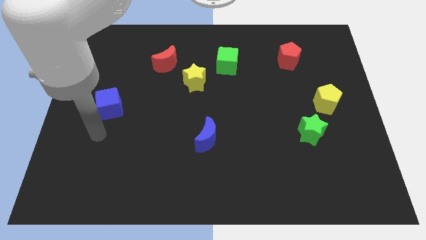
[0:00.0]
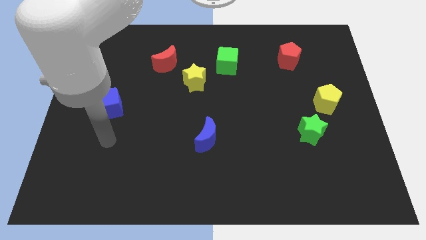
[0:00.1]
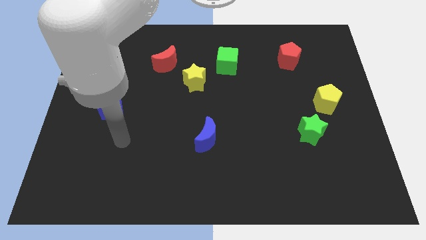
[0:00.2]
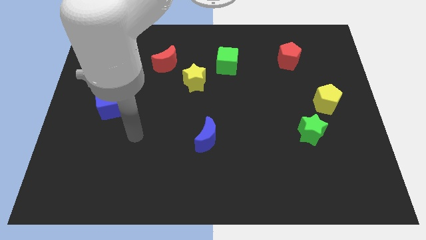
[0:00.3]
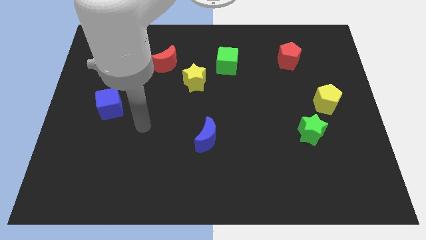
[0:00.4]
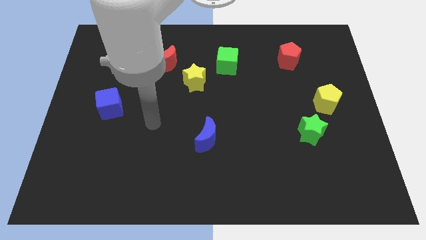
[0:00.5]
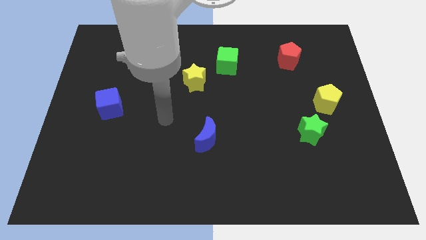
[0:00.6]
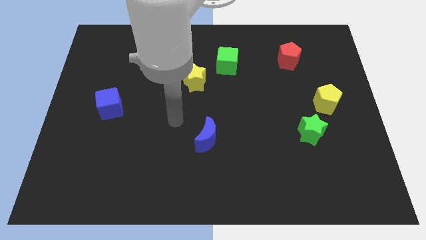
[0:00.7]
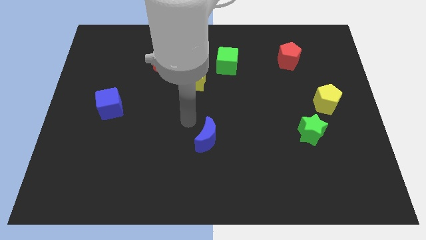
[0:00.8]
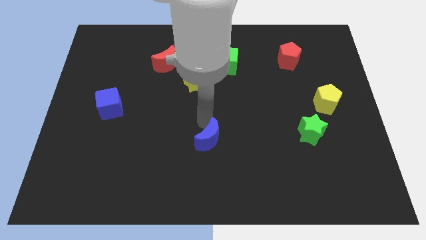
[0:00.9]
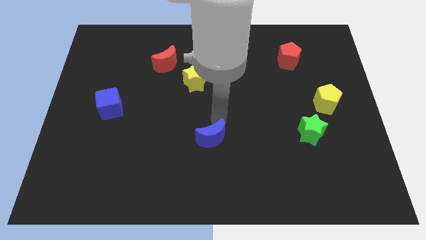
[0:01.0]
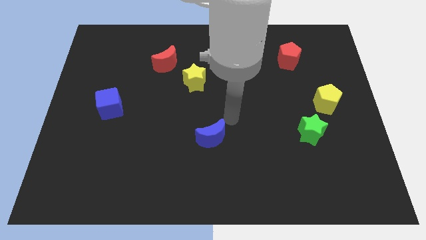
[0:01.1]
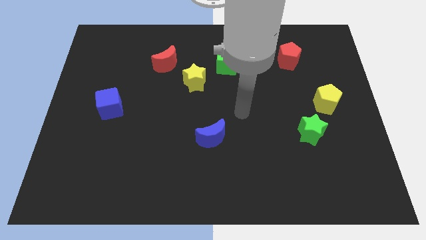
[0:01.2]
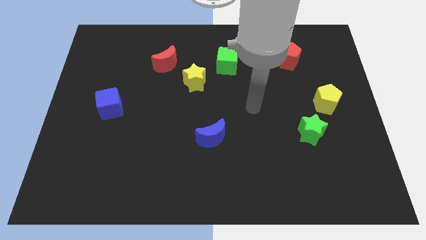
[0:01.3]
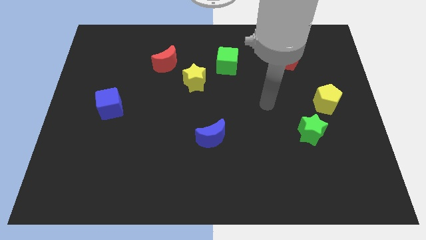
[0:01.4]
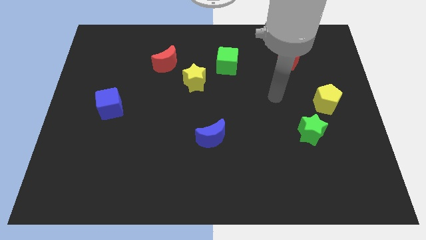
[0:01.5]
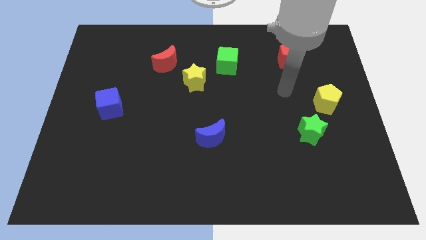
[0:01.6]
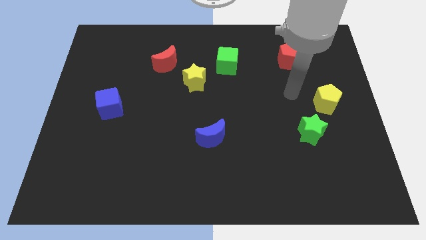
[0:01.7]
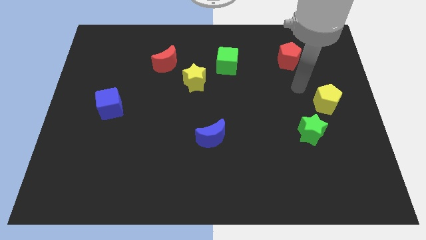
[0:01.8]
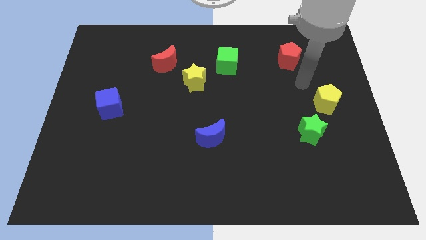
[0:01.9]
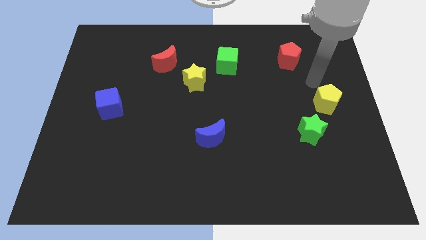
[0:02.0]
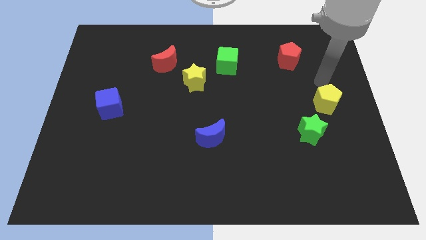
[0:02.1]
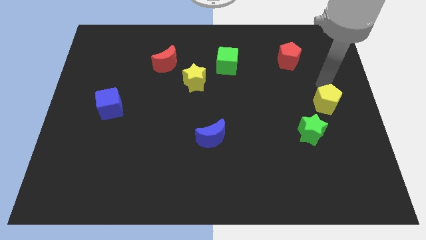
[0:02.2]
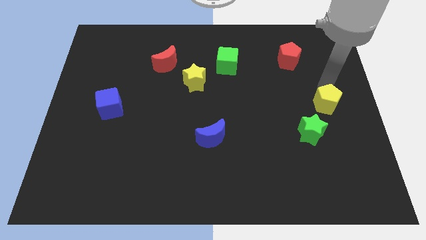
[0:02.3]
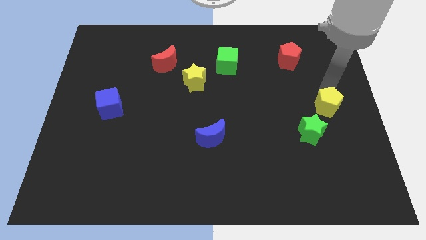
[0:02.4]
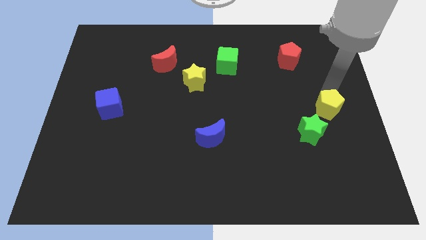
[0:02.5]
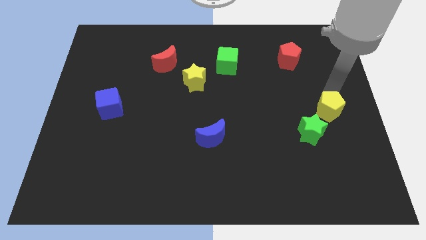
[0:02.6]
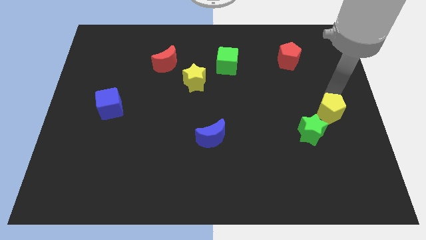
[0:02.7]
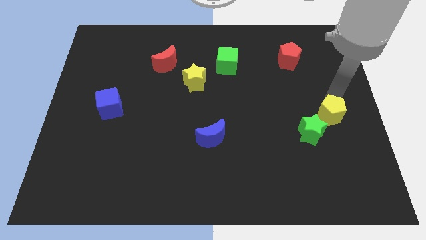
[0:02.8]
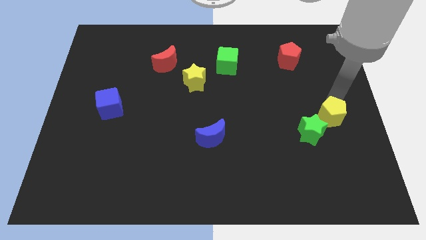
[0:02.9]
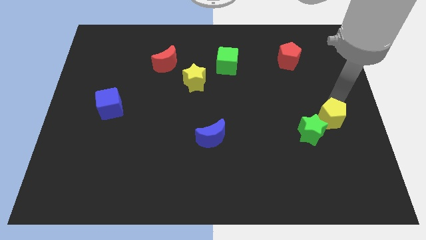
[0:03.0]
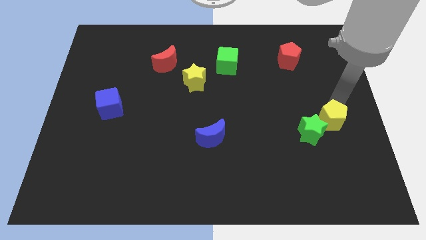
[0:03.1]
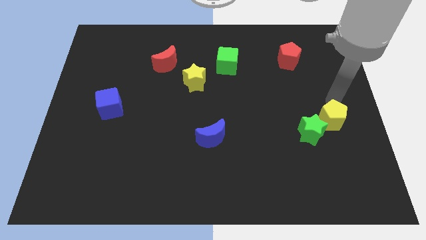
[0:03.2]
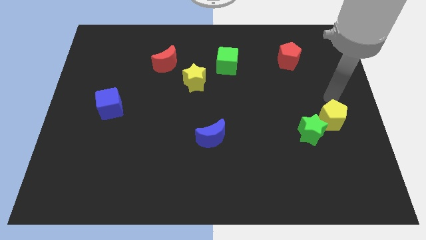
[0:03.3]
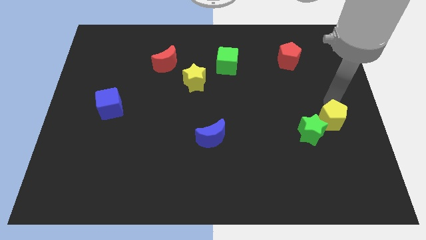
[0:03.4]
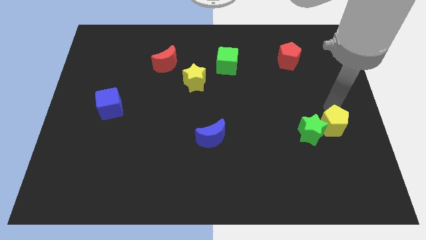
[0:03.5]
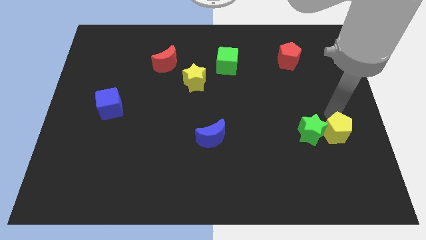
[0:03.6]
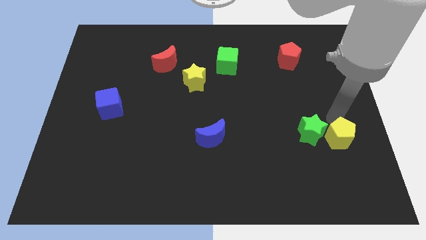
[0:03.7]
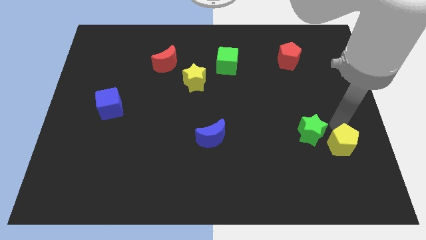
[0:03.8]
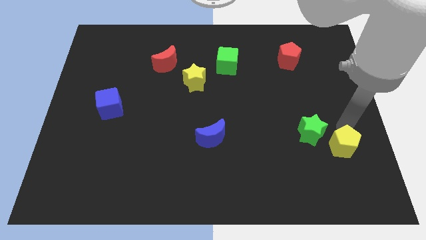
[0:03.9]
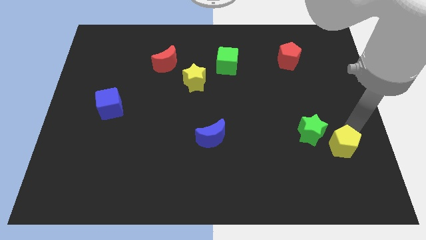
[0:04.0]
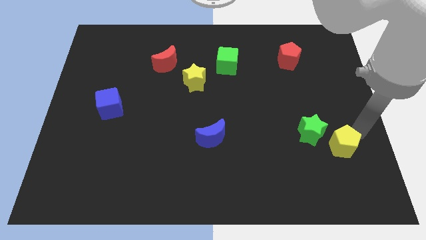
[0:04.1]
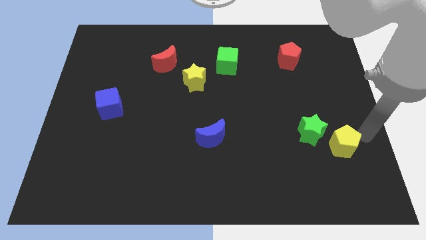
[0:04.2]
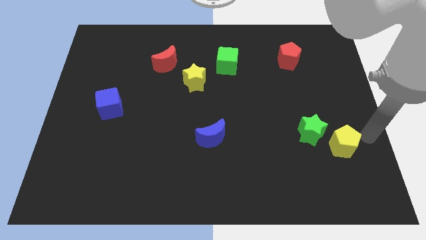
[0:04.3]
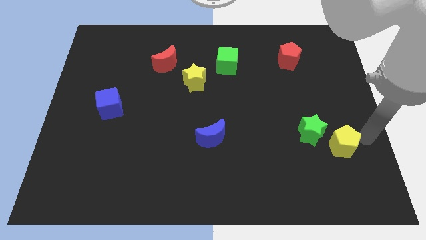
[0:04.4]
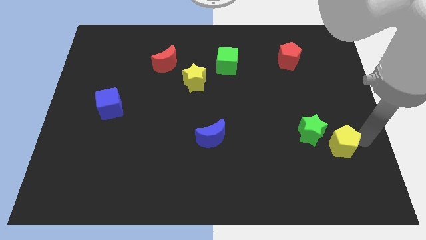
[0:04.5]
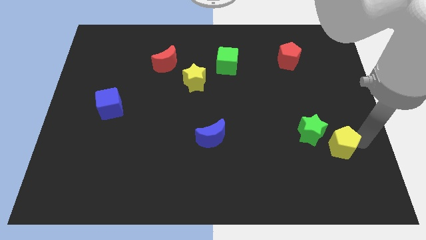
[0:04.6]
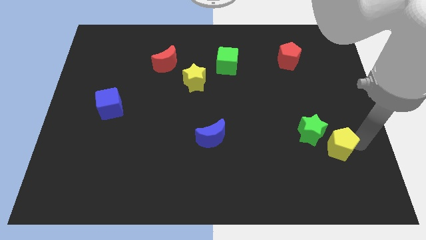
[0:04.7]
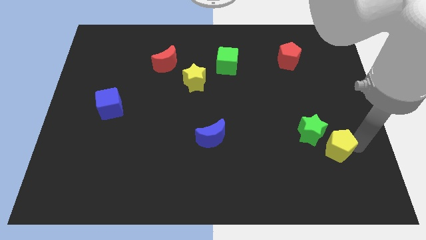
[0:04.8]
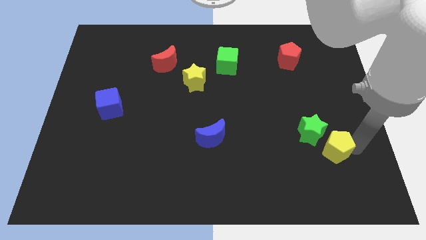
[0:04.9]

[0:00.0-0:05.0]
push the yellow pentagon below the green star

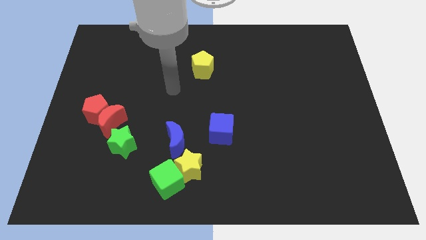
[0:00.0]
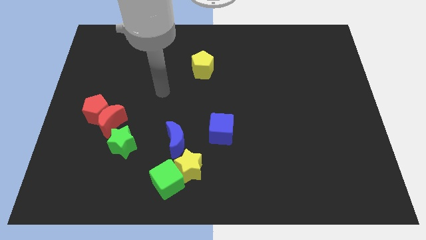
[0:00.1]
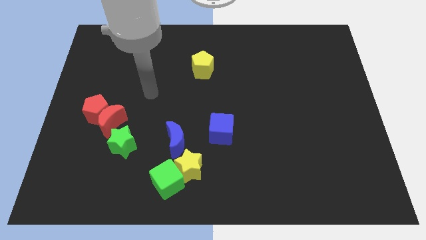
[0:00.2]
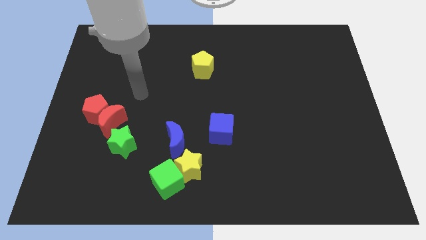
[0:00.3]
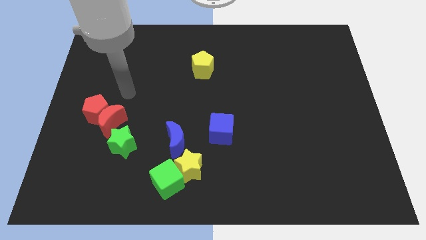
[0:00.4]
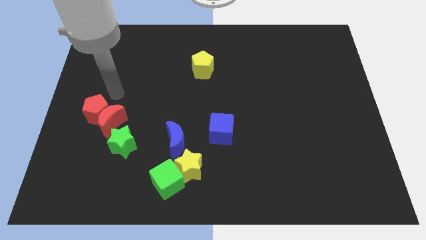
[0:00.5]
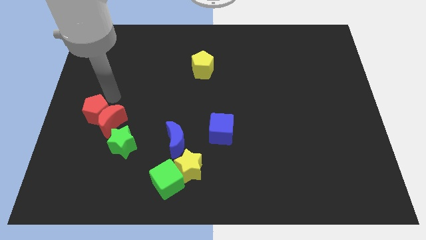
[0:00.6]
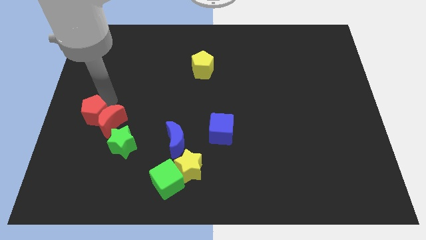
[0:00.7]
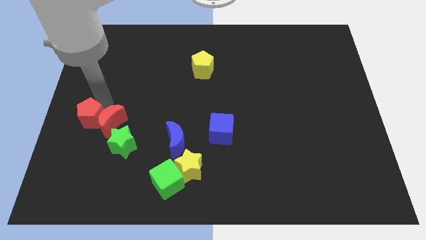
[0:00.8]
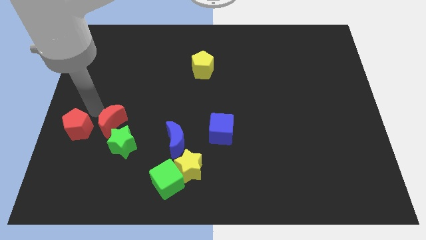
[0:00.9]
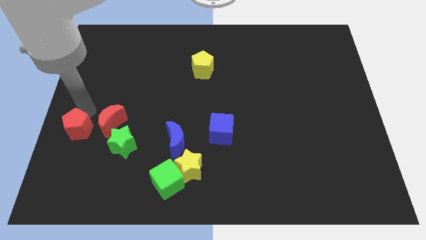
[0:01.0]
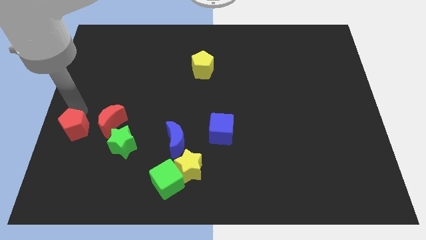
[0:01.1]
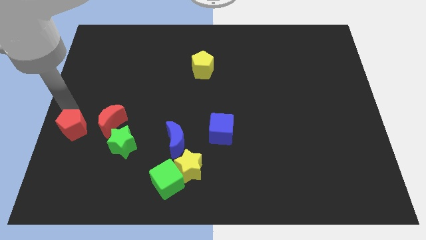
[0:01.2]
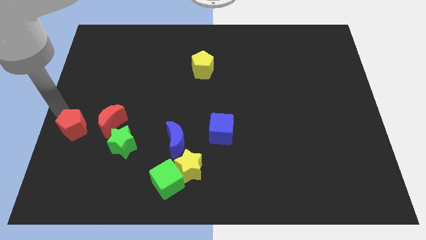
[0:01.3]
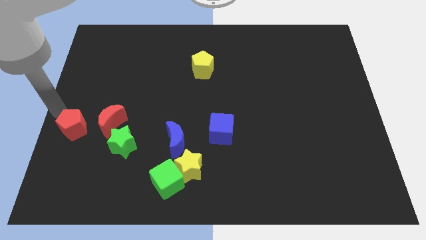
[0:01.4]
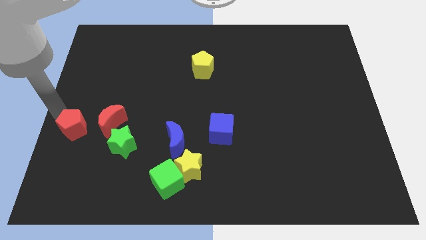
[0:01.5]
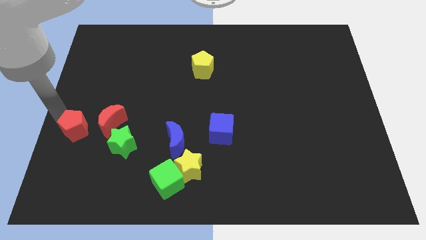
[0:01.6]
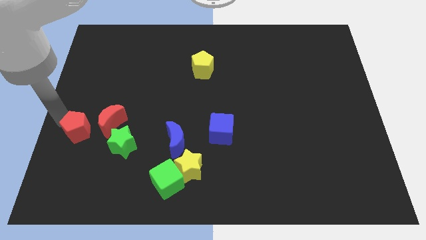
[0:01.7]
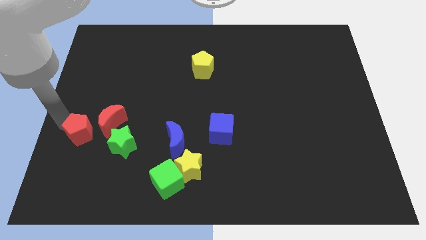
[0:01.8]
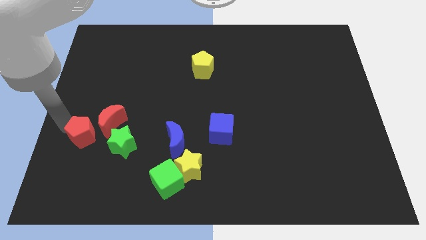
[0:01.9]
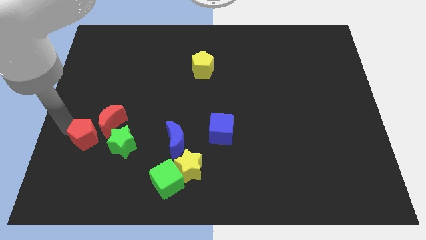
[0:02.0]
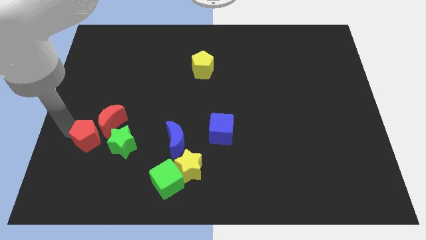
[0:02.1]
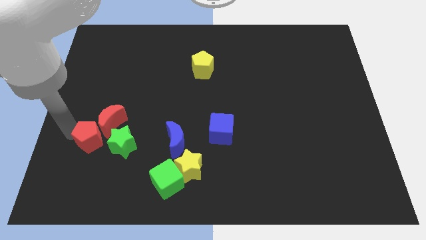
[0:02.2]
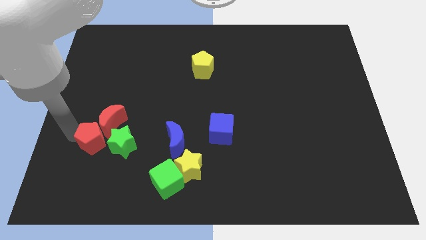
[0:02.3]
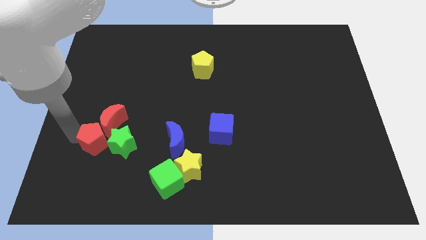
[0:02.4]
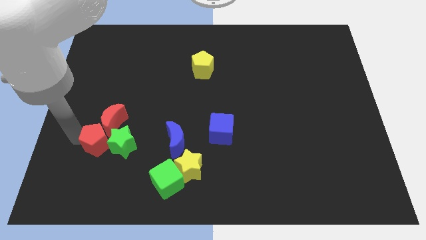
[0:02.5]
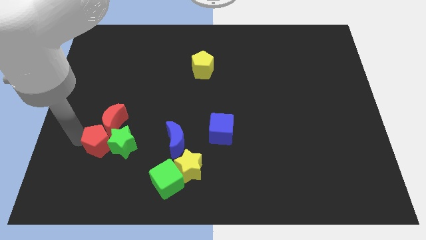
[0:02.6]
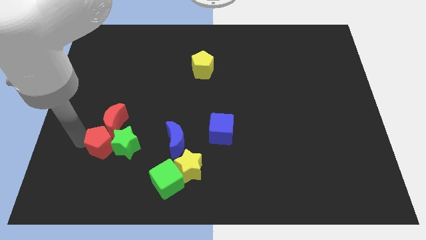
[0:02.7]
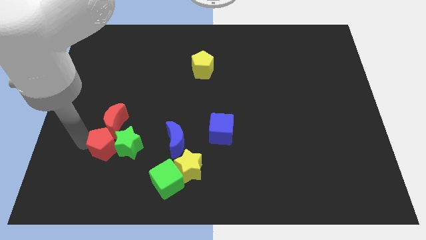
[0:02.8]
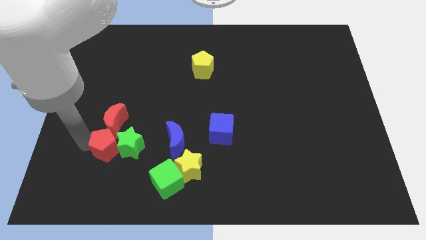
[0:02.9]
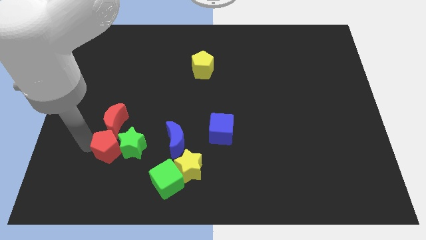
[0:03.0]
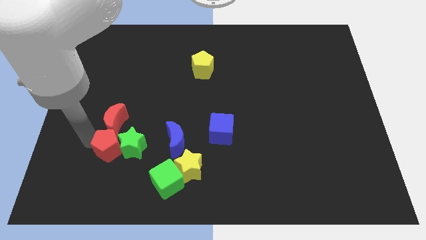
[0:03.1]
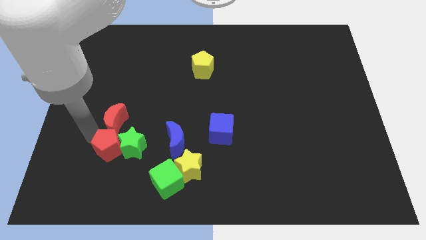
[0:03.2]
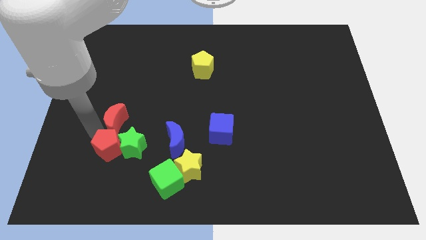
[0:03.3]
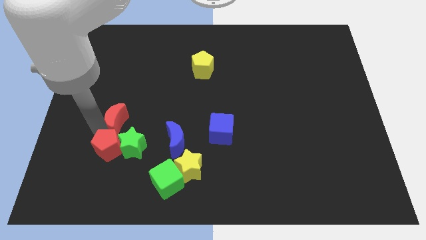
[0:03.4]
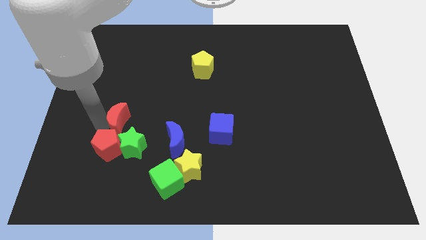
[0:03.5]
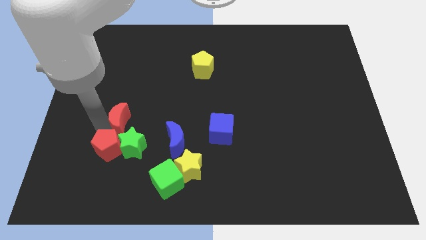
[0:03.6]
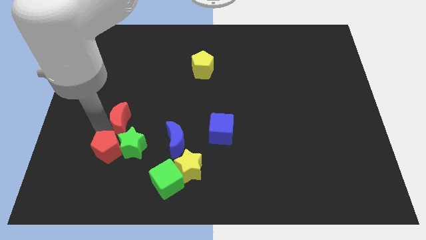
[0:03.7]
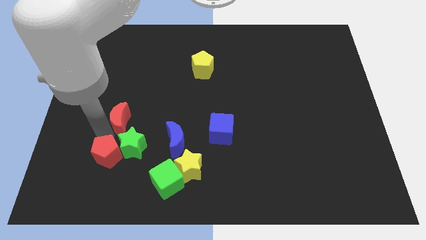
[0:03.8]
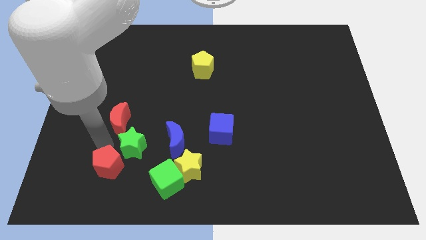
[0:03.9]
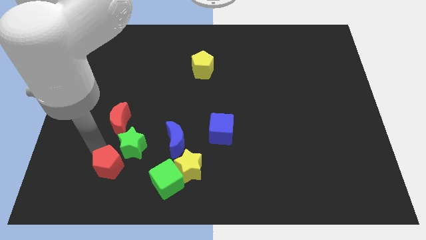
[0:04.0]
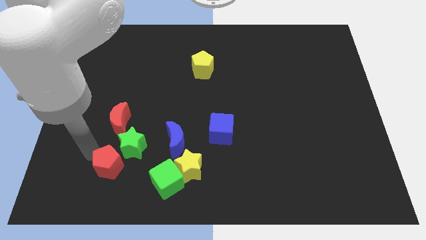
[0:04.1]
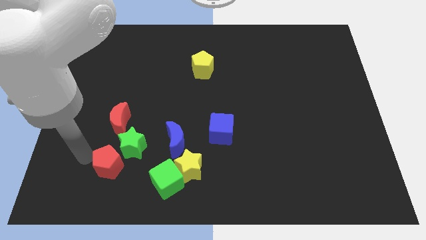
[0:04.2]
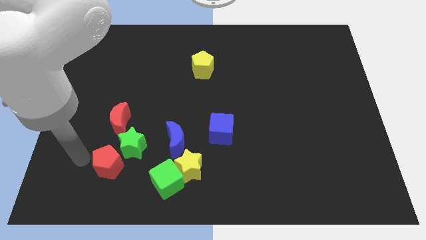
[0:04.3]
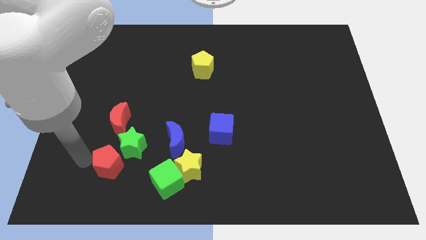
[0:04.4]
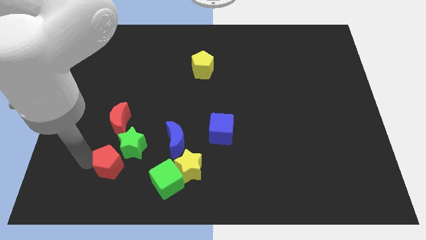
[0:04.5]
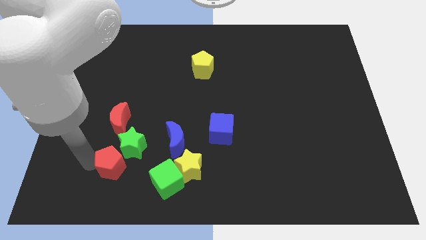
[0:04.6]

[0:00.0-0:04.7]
push the red pentagon to the left side of the yellow star
